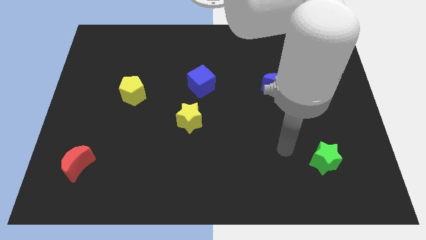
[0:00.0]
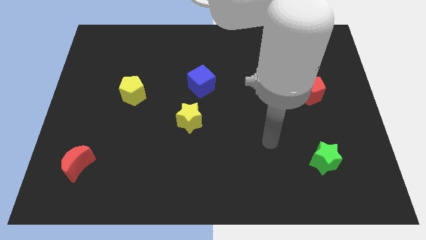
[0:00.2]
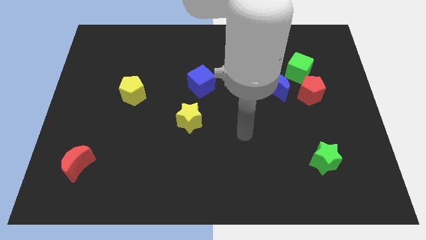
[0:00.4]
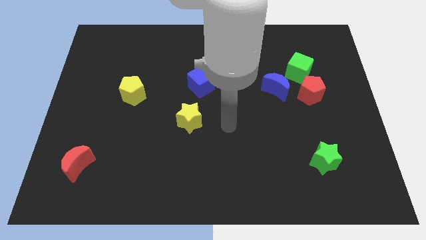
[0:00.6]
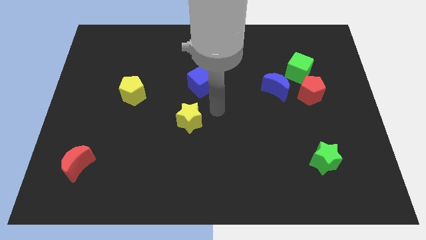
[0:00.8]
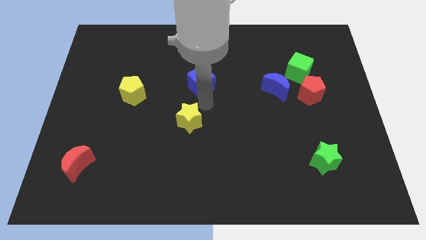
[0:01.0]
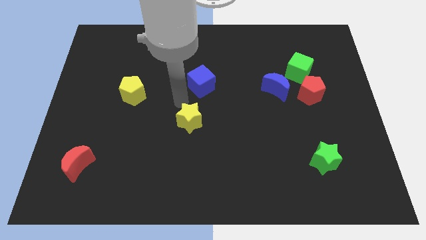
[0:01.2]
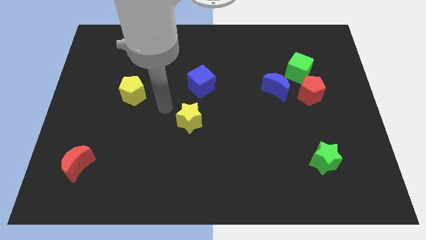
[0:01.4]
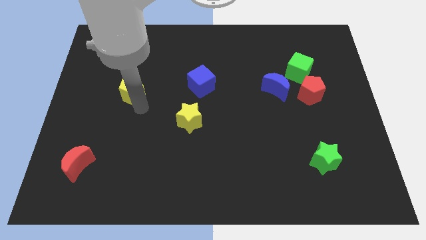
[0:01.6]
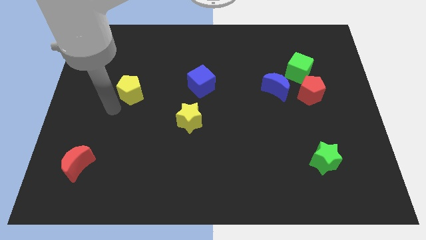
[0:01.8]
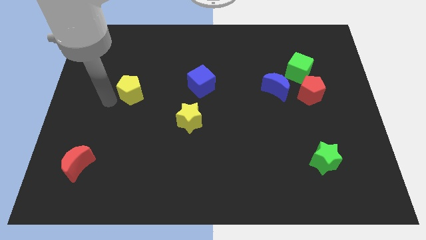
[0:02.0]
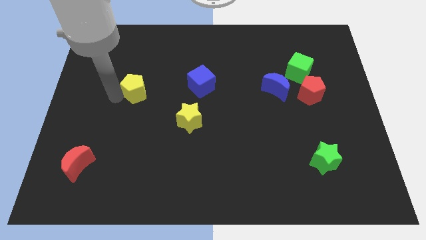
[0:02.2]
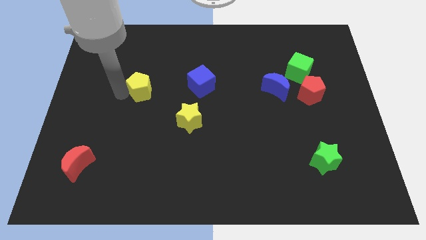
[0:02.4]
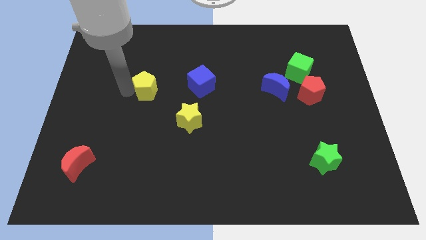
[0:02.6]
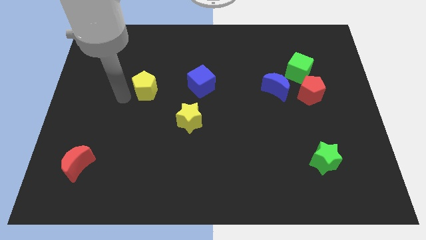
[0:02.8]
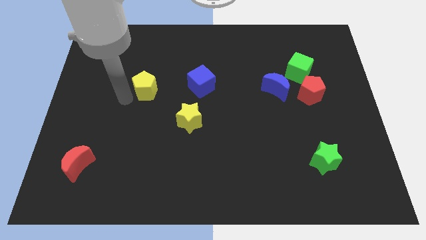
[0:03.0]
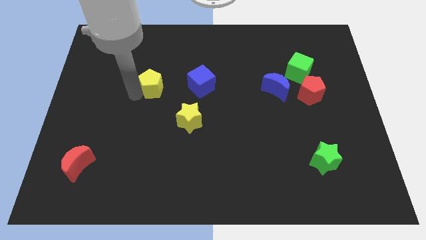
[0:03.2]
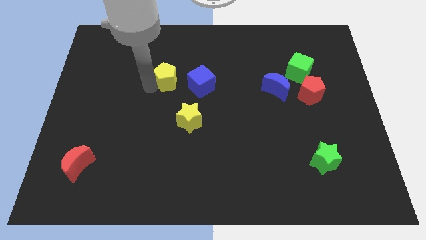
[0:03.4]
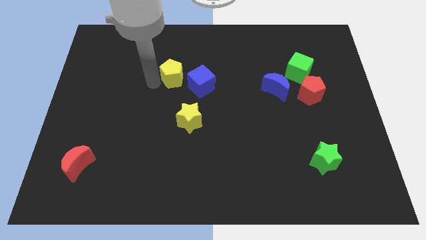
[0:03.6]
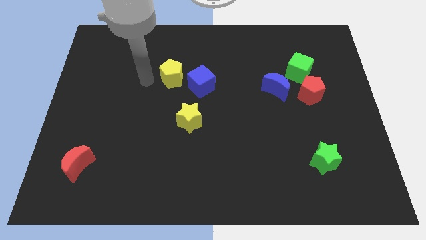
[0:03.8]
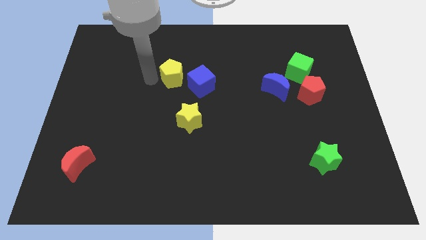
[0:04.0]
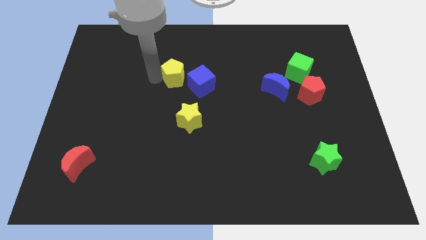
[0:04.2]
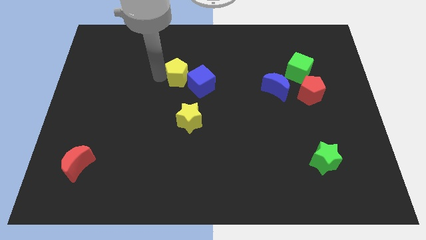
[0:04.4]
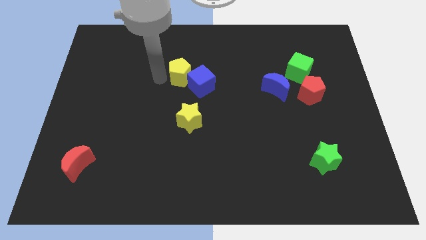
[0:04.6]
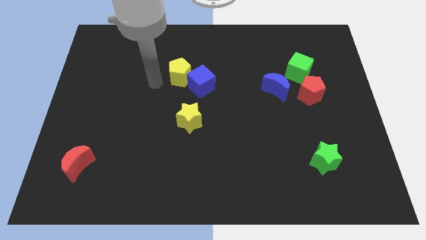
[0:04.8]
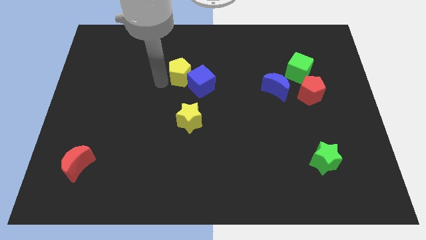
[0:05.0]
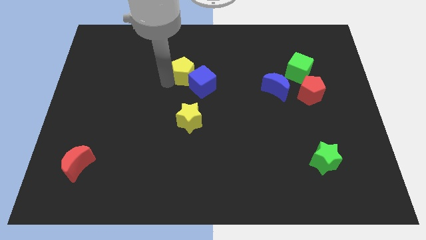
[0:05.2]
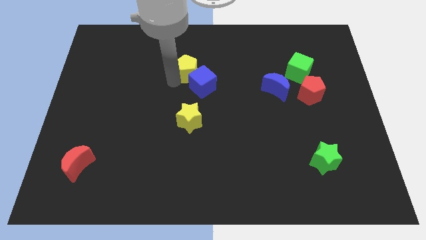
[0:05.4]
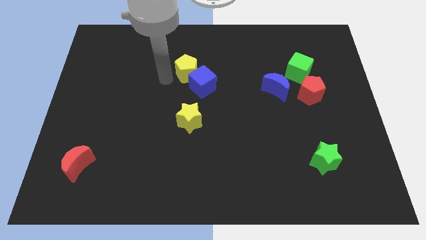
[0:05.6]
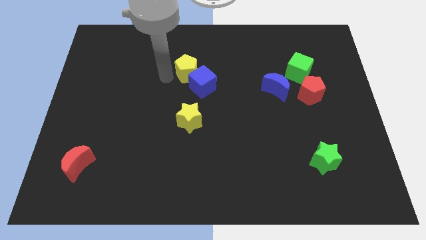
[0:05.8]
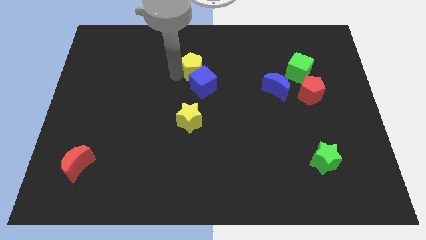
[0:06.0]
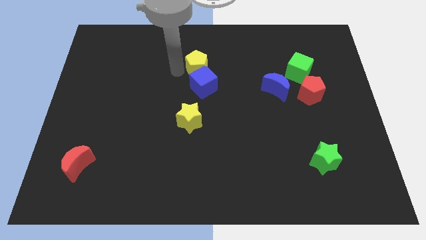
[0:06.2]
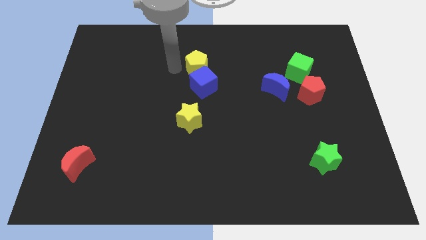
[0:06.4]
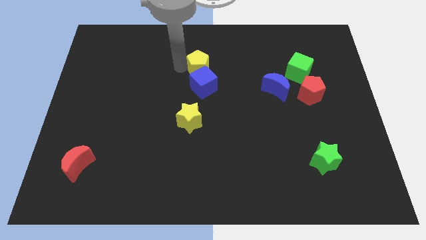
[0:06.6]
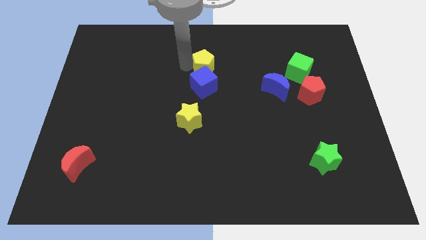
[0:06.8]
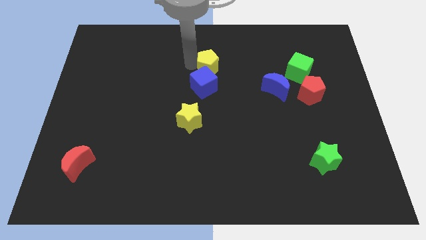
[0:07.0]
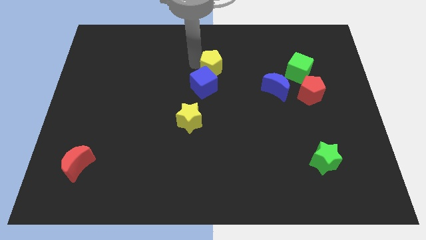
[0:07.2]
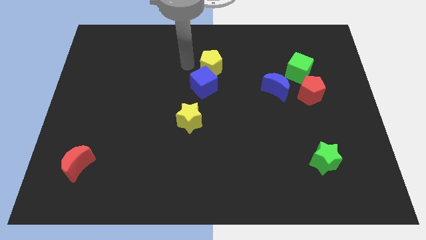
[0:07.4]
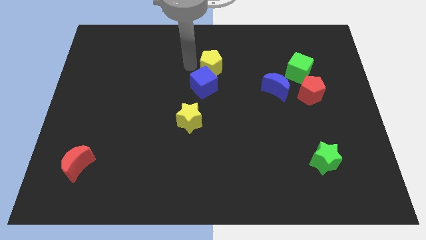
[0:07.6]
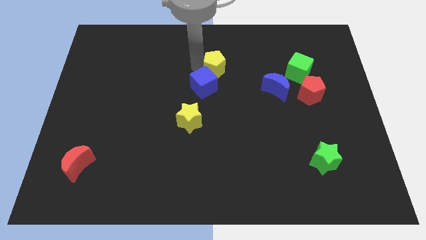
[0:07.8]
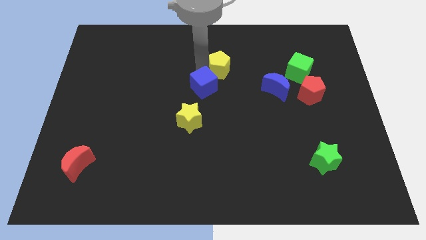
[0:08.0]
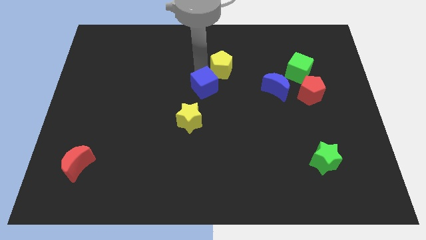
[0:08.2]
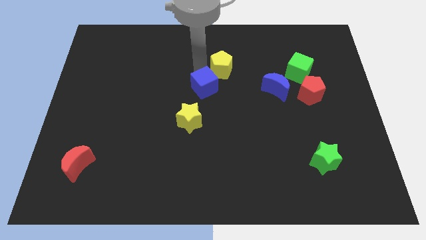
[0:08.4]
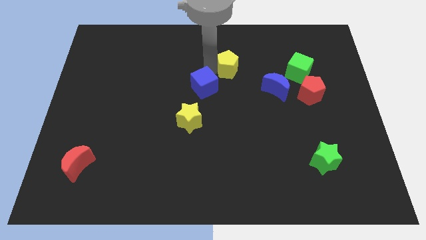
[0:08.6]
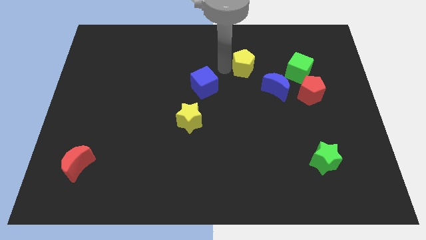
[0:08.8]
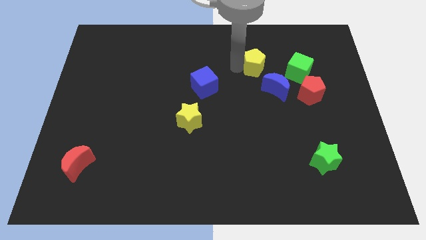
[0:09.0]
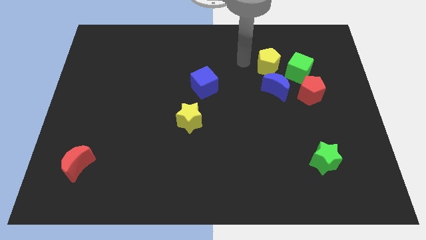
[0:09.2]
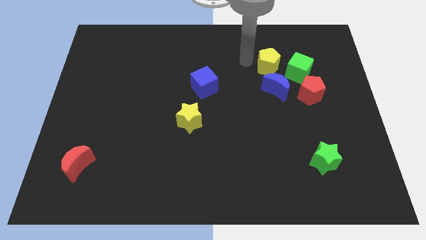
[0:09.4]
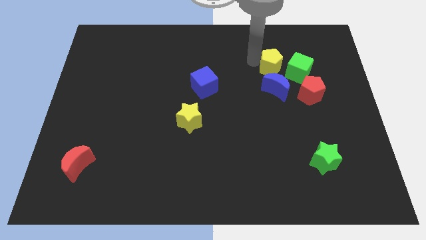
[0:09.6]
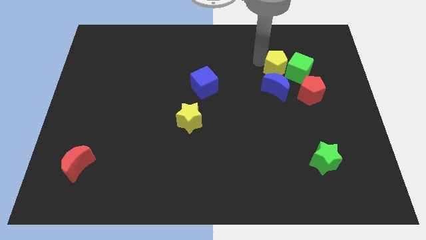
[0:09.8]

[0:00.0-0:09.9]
slide the yellow pentagon to the green cube

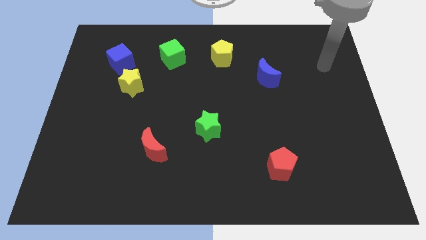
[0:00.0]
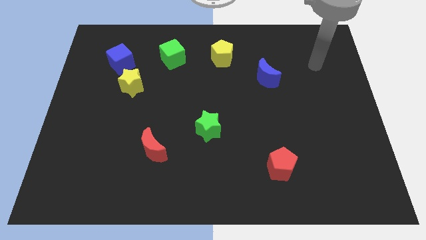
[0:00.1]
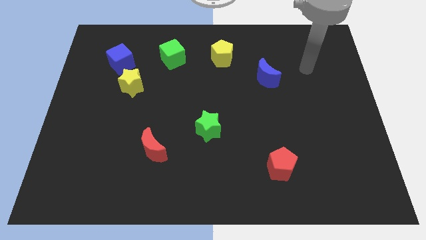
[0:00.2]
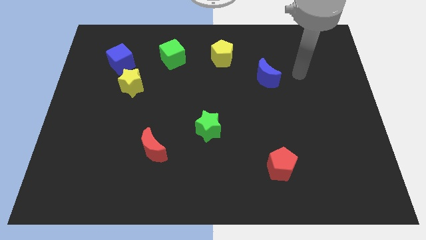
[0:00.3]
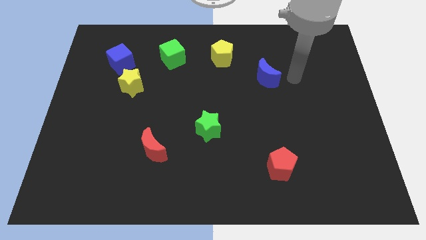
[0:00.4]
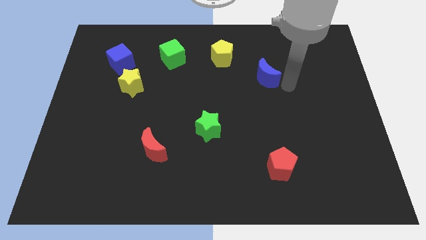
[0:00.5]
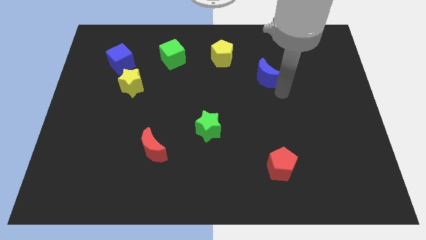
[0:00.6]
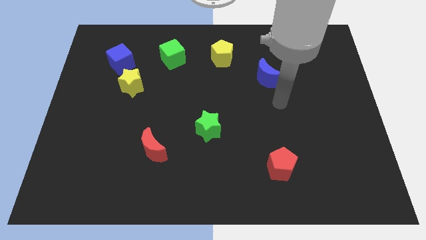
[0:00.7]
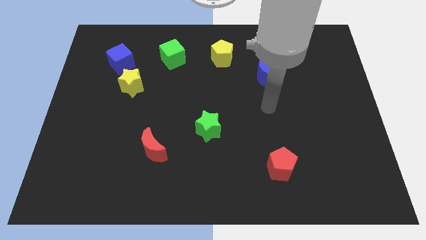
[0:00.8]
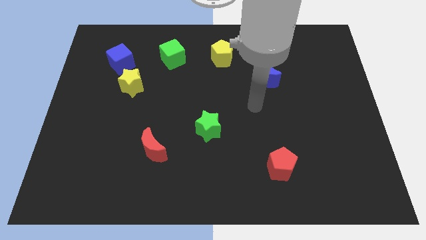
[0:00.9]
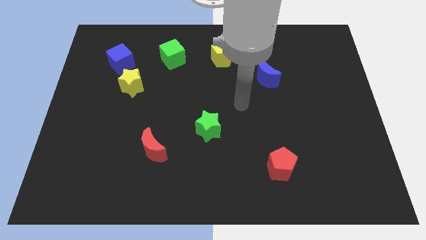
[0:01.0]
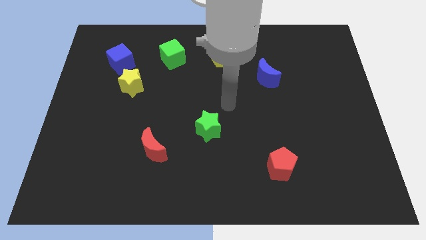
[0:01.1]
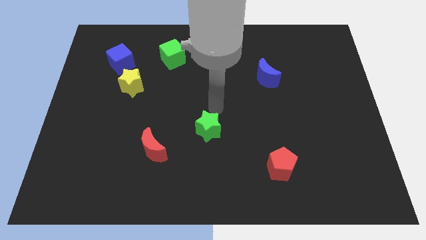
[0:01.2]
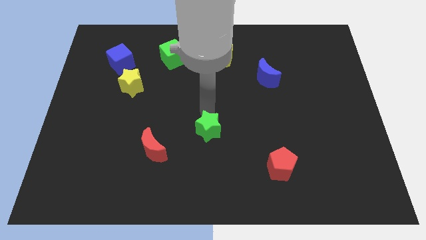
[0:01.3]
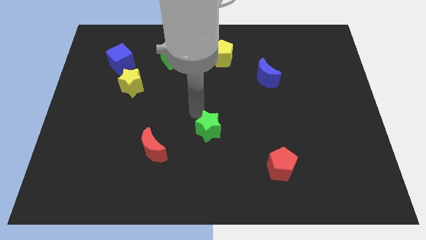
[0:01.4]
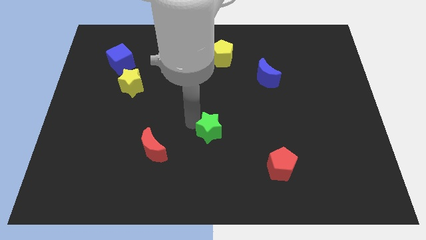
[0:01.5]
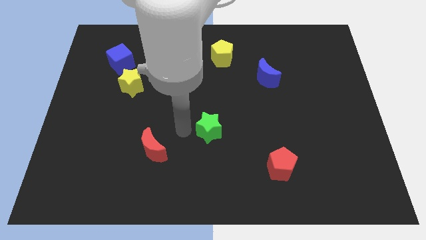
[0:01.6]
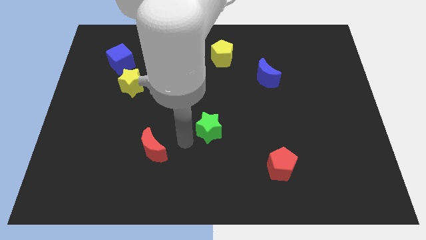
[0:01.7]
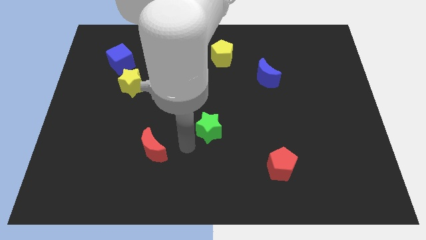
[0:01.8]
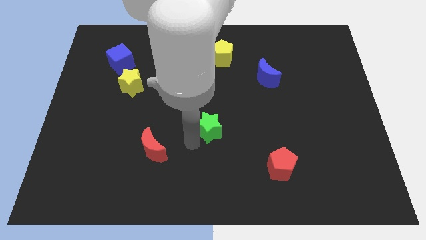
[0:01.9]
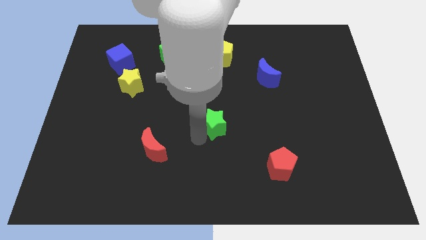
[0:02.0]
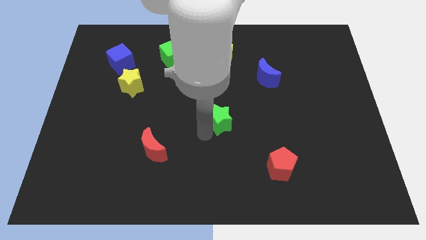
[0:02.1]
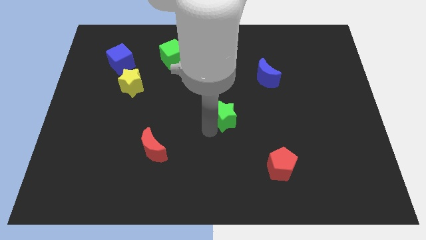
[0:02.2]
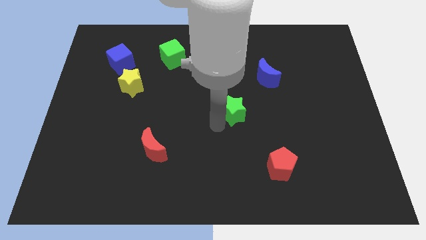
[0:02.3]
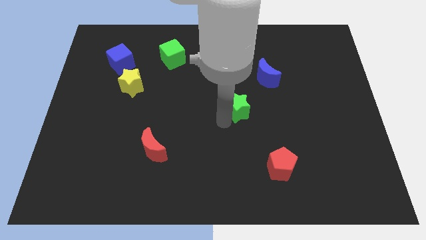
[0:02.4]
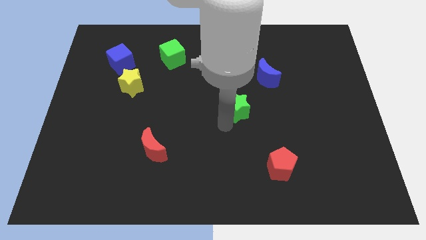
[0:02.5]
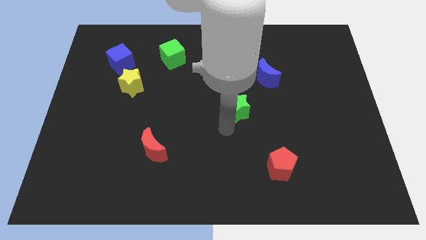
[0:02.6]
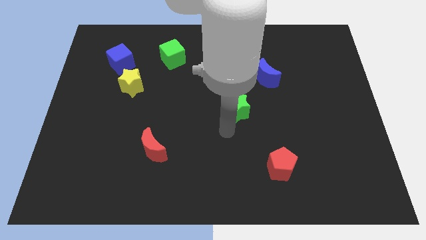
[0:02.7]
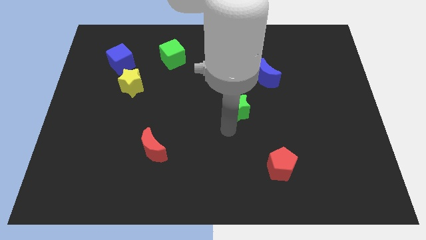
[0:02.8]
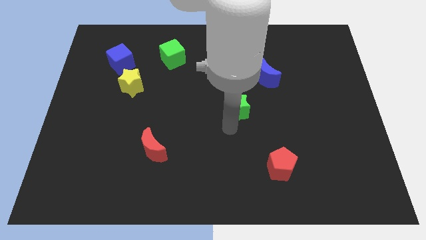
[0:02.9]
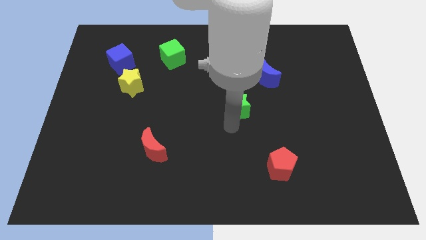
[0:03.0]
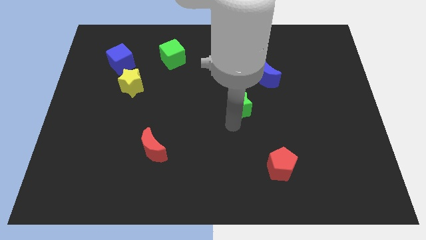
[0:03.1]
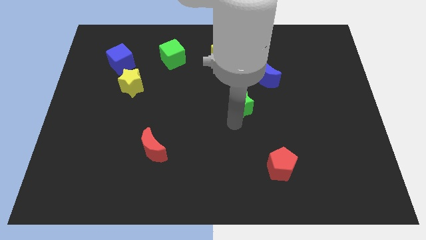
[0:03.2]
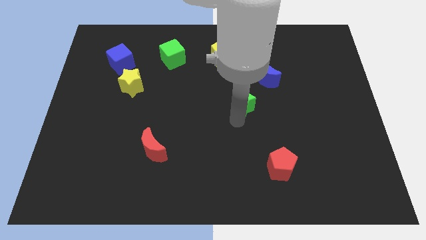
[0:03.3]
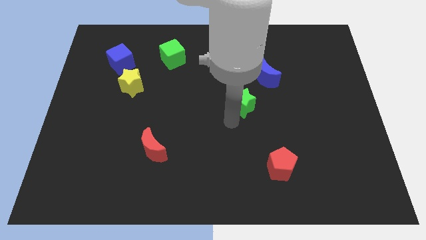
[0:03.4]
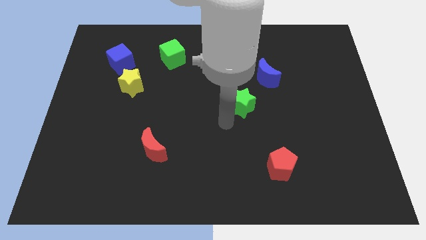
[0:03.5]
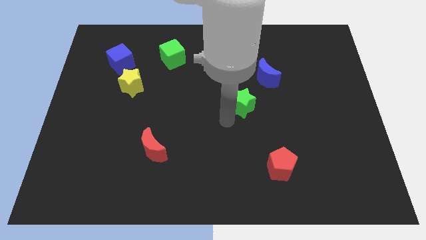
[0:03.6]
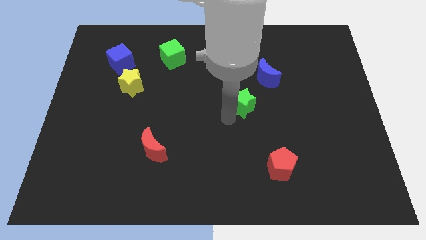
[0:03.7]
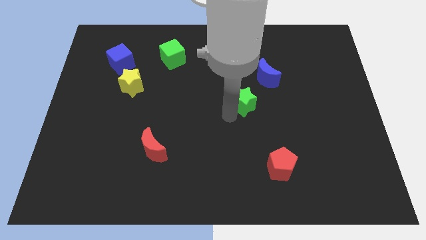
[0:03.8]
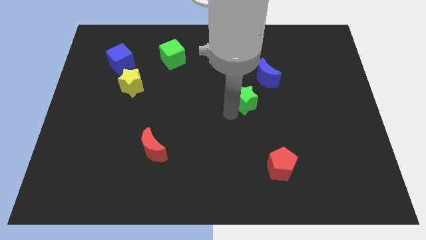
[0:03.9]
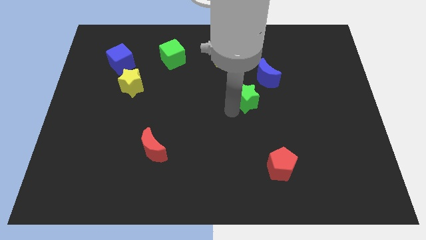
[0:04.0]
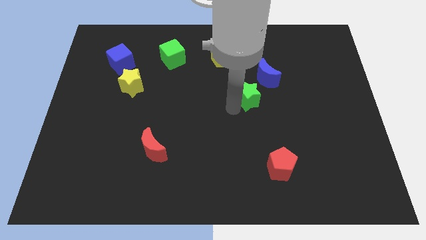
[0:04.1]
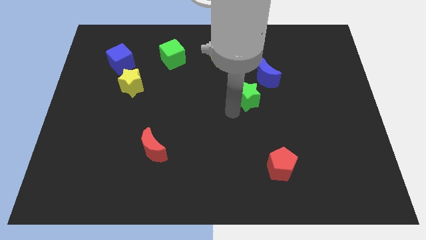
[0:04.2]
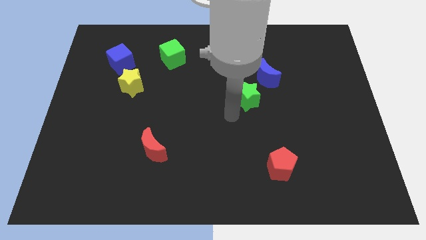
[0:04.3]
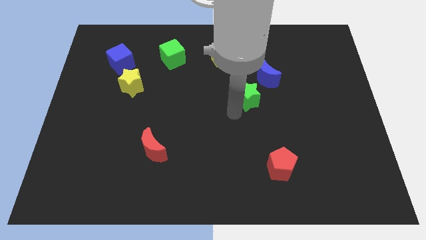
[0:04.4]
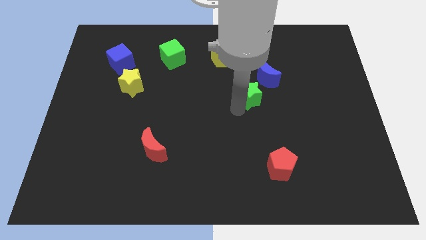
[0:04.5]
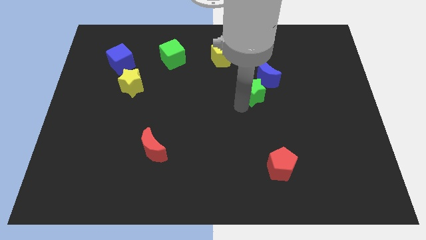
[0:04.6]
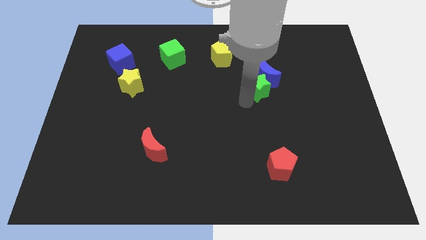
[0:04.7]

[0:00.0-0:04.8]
slide the green star to the blue moon
